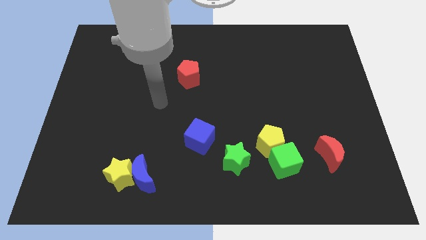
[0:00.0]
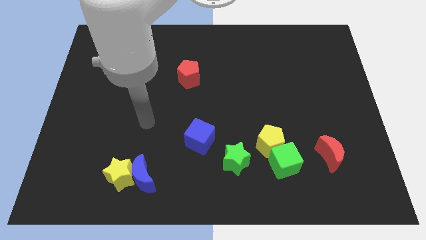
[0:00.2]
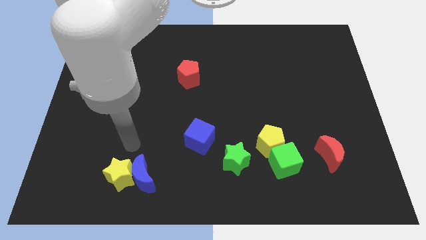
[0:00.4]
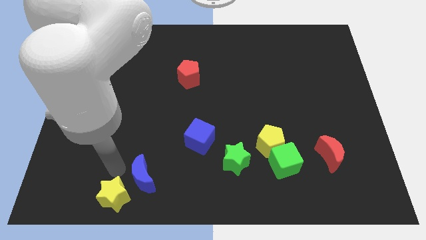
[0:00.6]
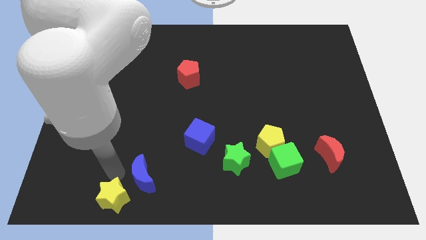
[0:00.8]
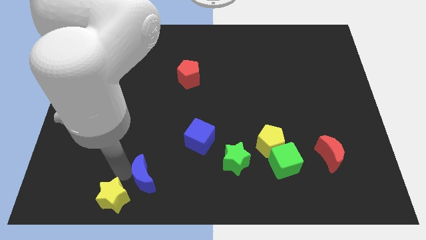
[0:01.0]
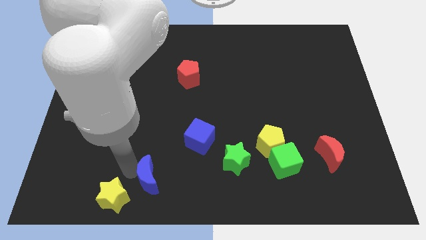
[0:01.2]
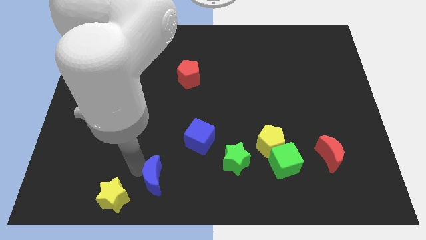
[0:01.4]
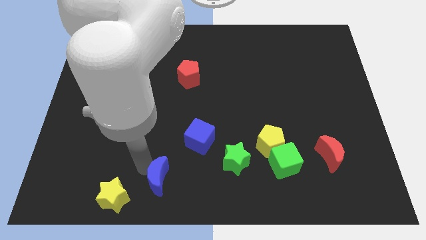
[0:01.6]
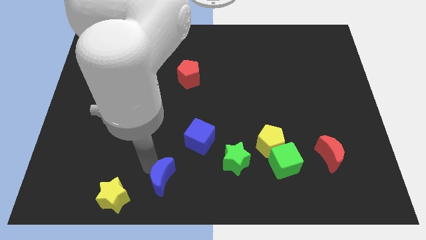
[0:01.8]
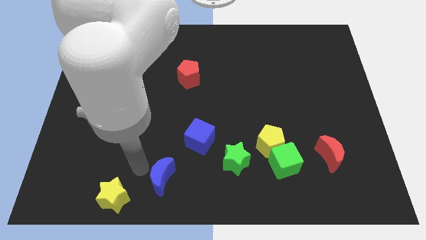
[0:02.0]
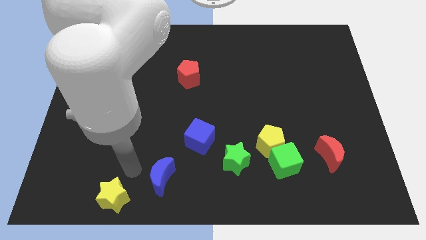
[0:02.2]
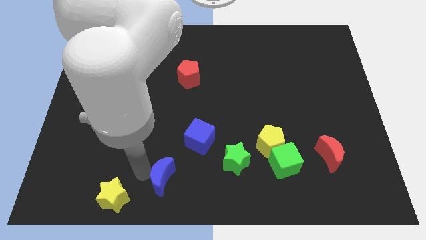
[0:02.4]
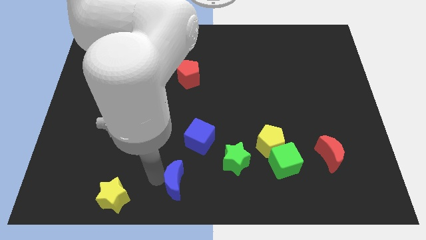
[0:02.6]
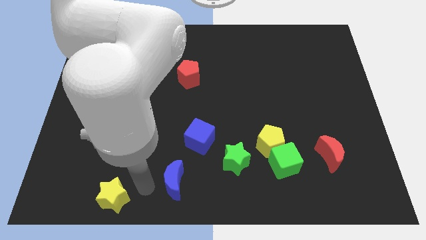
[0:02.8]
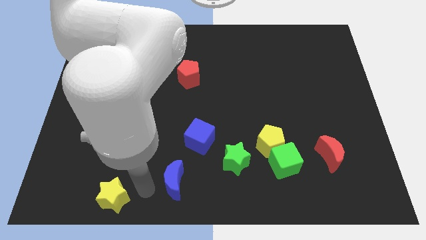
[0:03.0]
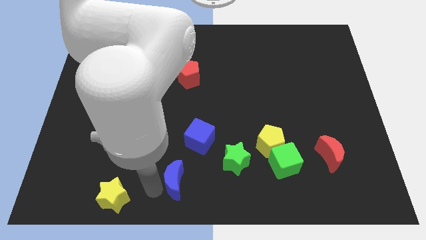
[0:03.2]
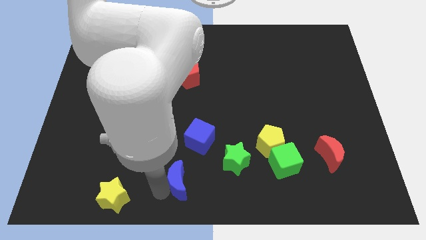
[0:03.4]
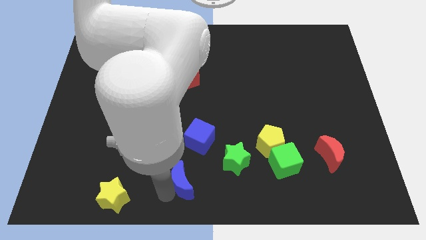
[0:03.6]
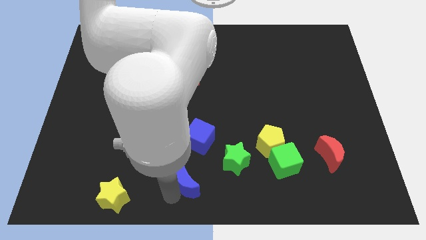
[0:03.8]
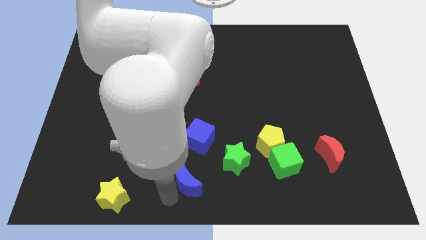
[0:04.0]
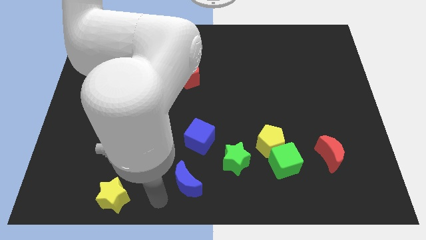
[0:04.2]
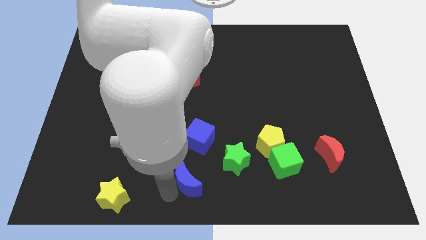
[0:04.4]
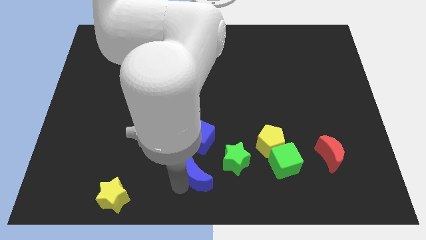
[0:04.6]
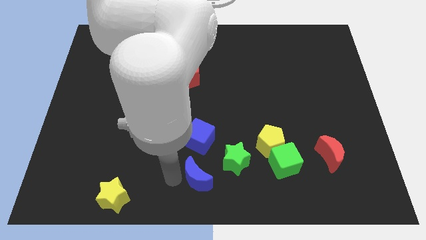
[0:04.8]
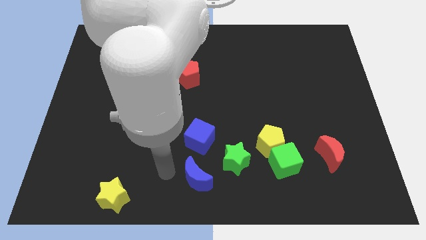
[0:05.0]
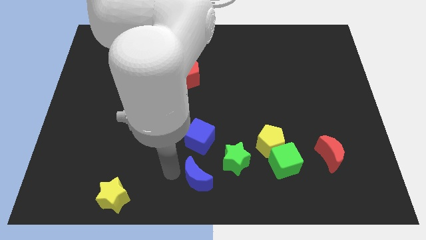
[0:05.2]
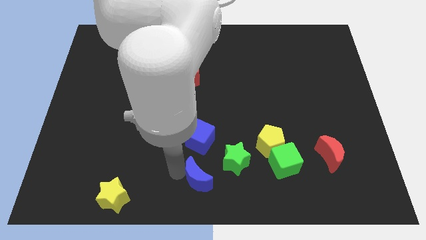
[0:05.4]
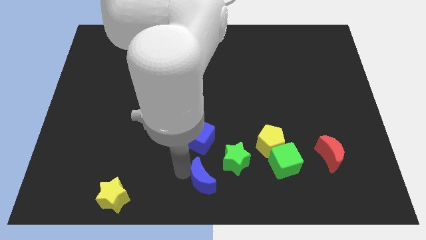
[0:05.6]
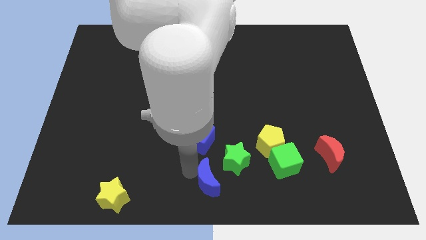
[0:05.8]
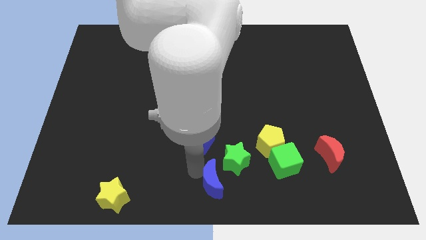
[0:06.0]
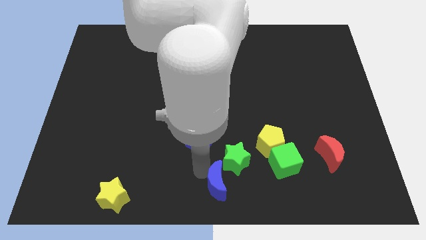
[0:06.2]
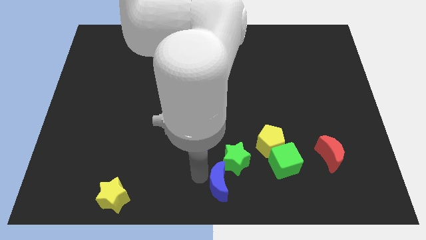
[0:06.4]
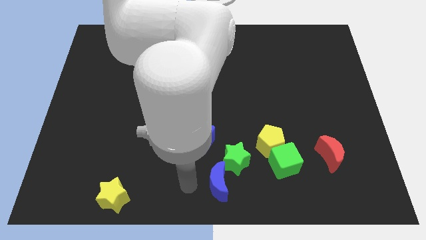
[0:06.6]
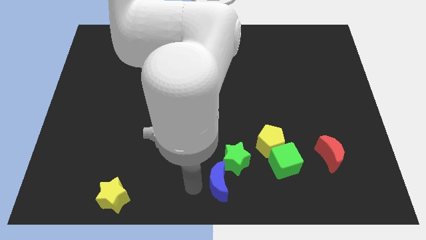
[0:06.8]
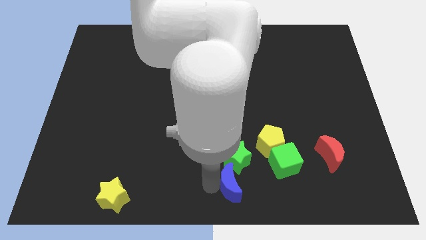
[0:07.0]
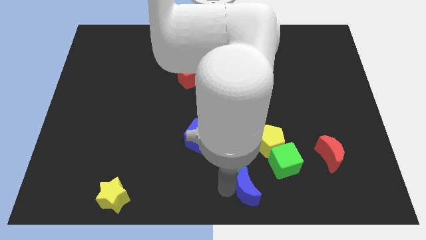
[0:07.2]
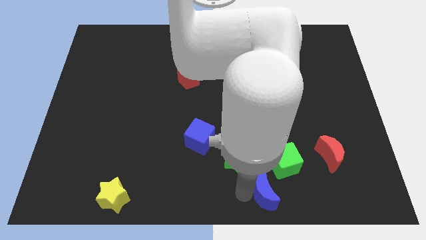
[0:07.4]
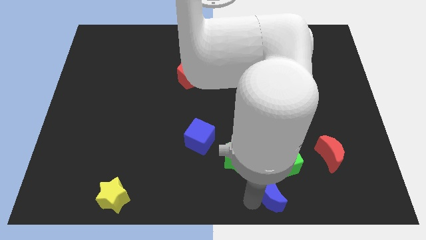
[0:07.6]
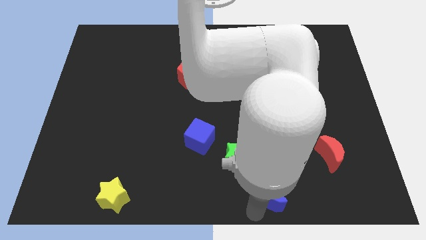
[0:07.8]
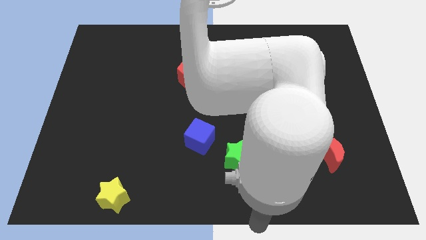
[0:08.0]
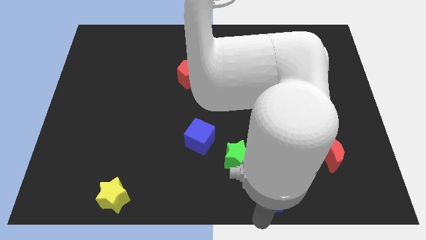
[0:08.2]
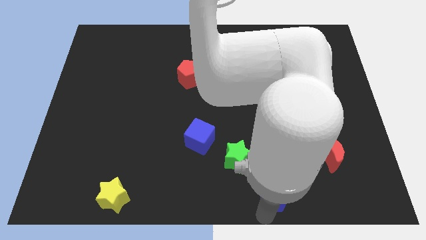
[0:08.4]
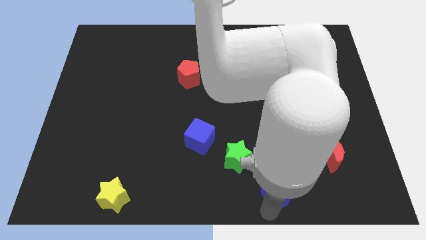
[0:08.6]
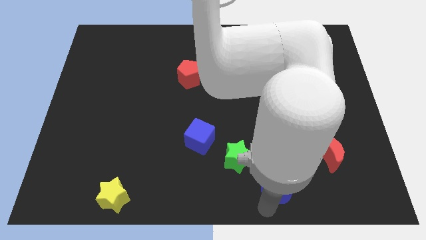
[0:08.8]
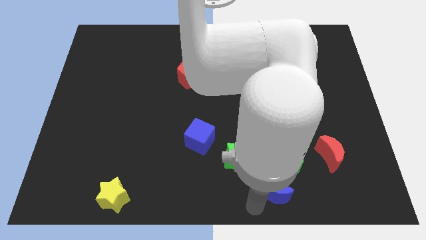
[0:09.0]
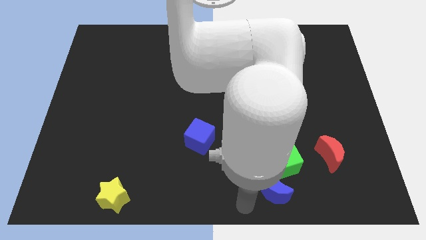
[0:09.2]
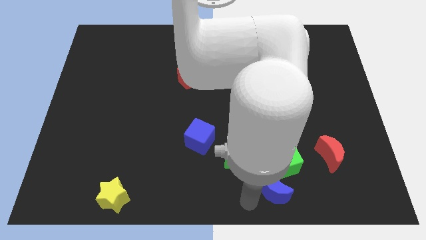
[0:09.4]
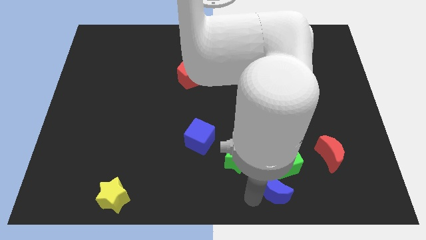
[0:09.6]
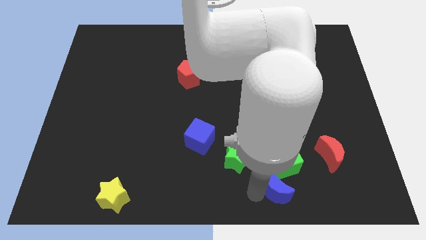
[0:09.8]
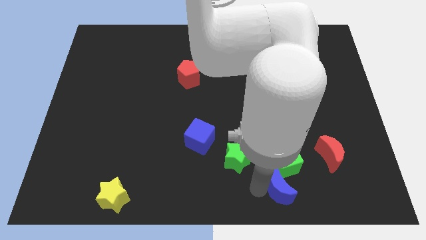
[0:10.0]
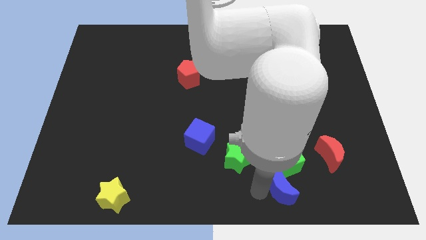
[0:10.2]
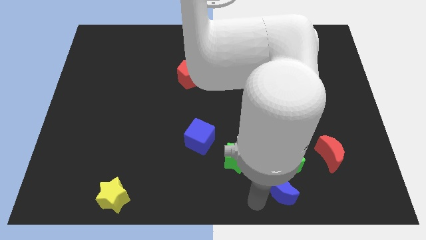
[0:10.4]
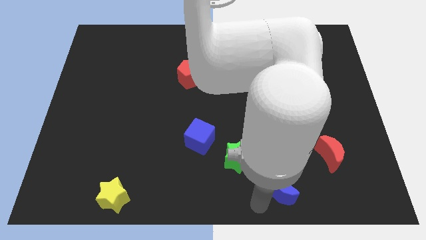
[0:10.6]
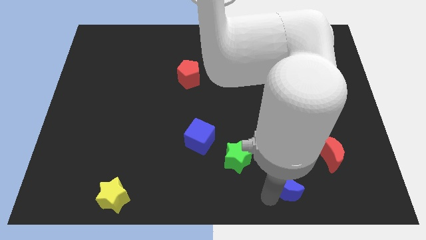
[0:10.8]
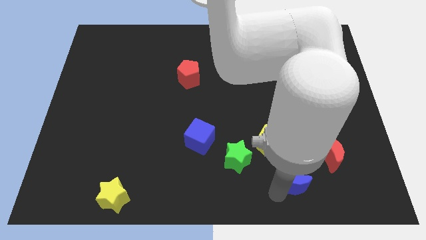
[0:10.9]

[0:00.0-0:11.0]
slide the blue moon to the bottom right side of the yellow pentagon

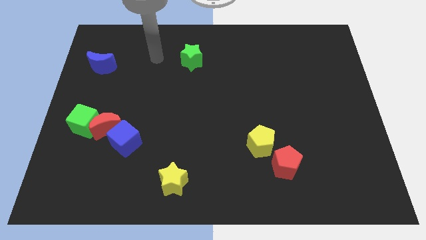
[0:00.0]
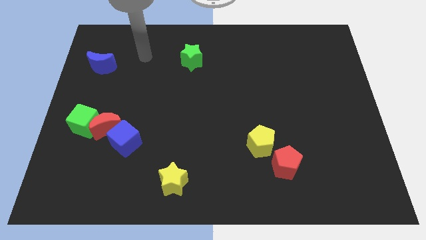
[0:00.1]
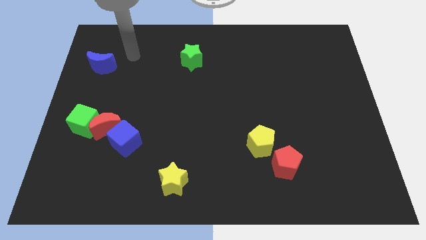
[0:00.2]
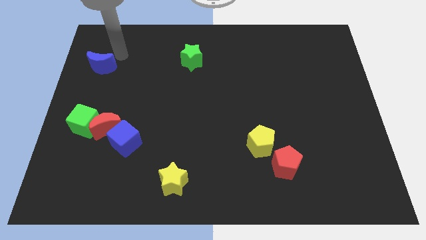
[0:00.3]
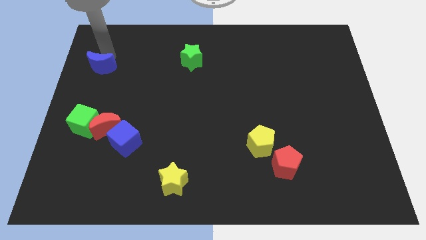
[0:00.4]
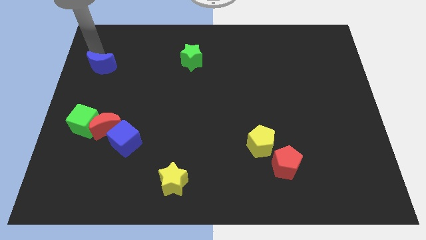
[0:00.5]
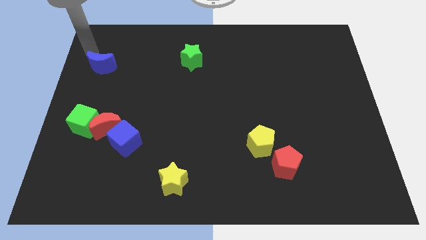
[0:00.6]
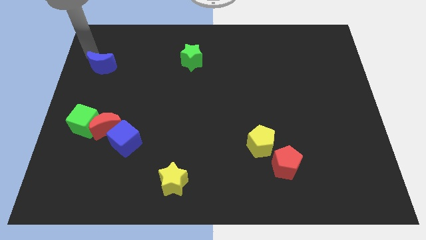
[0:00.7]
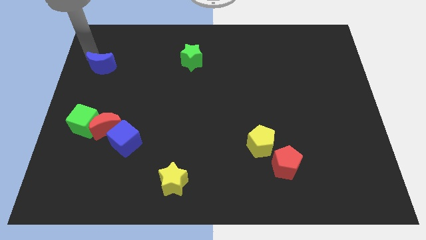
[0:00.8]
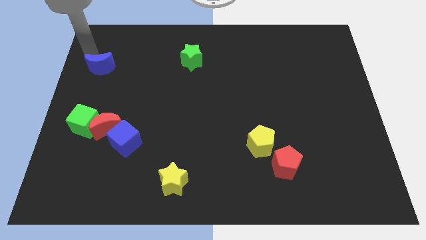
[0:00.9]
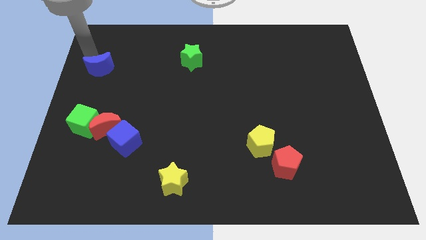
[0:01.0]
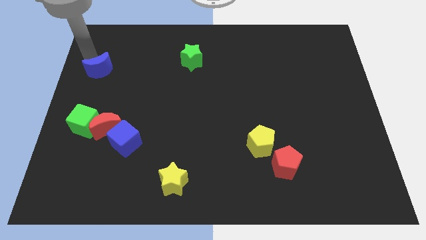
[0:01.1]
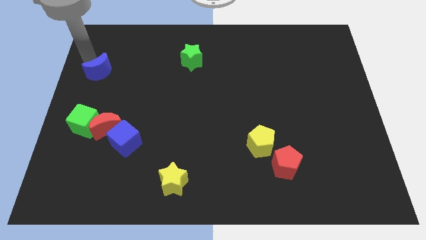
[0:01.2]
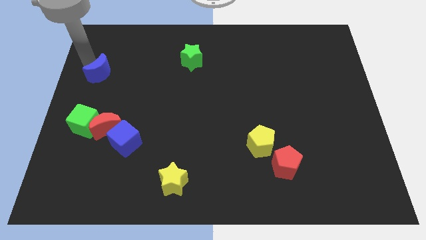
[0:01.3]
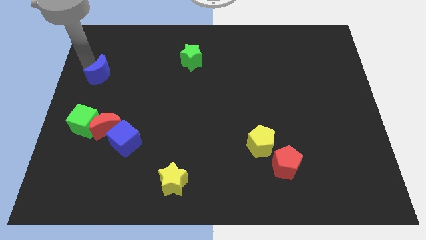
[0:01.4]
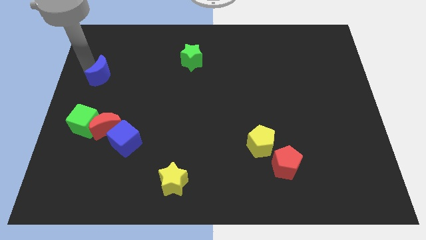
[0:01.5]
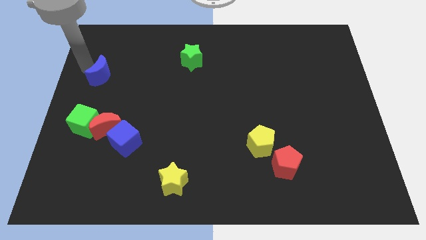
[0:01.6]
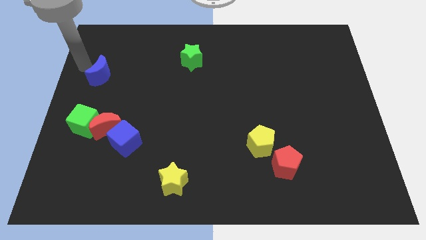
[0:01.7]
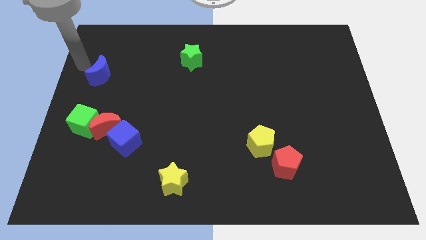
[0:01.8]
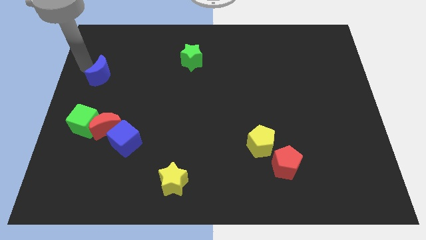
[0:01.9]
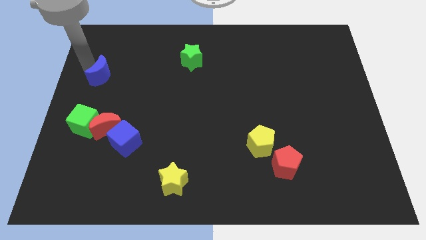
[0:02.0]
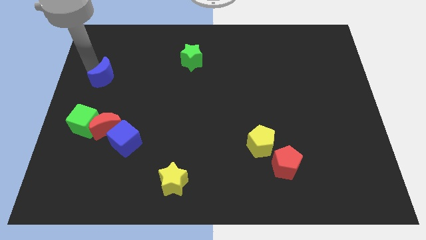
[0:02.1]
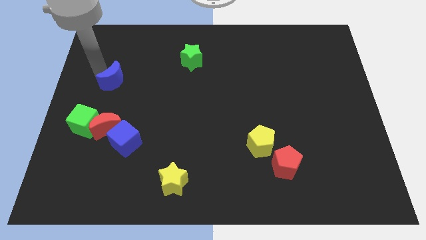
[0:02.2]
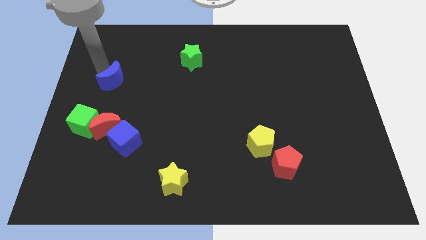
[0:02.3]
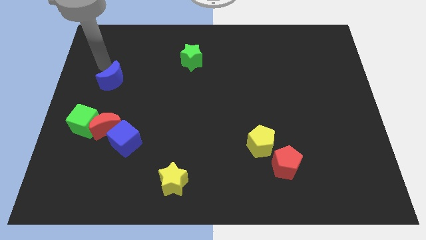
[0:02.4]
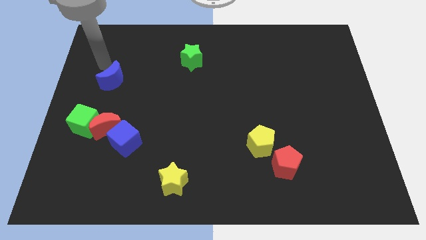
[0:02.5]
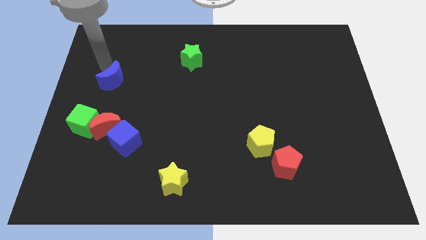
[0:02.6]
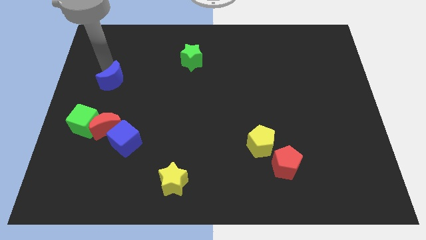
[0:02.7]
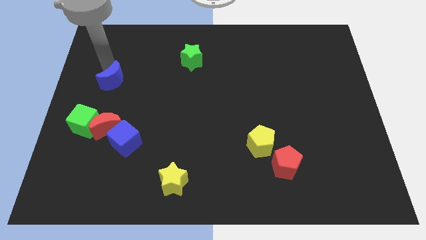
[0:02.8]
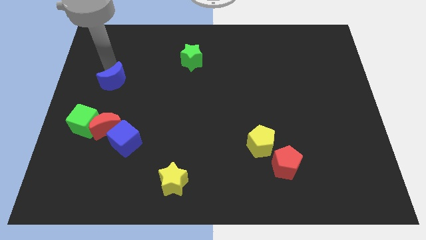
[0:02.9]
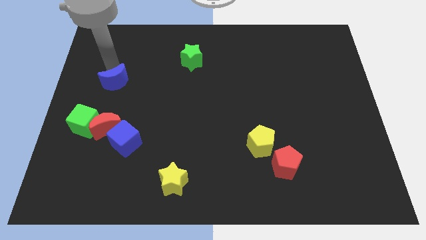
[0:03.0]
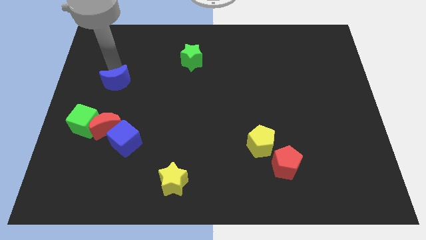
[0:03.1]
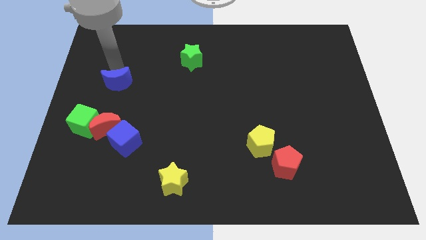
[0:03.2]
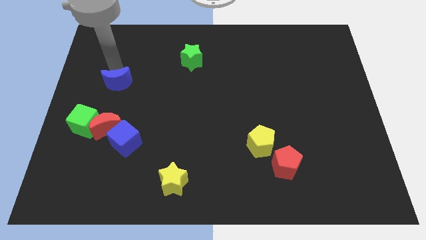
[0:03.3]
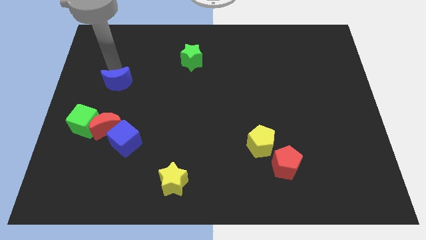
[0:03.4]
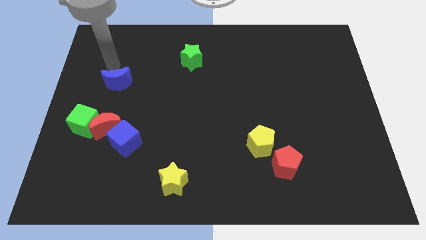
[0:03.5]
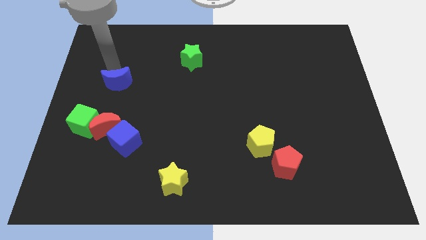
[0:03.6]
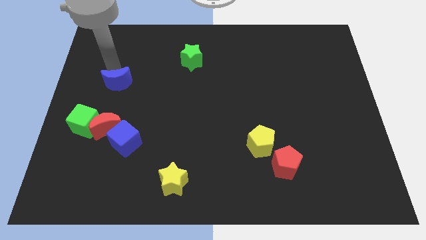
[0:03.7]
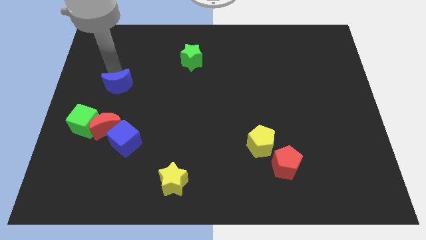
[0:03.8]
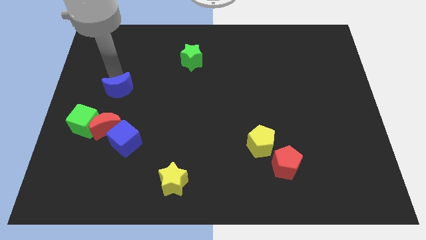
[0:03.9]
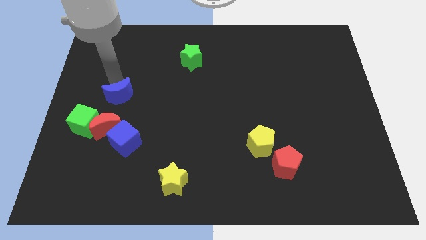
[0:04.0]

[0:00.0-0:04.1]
slide the blue moon above the blue cube
